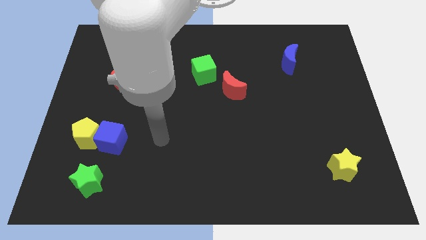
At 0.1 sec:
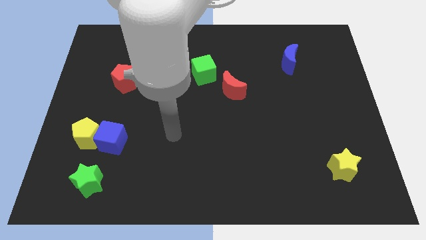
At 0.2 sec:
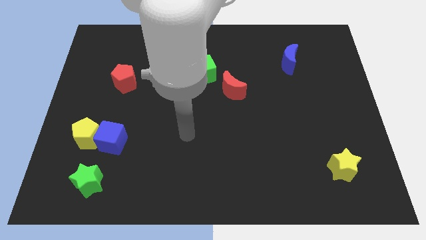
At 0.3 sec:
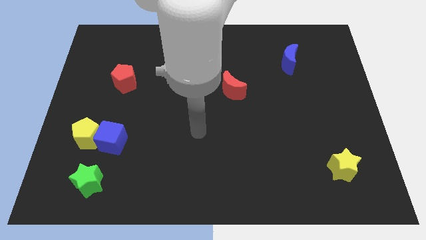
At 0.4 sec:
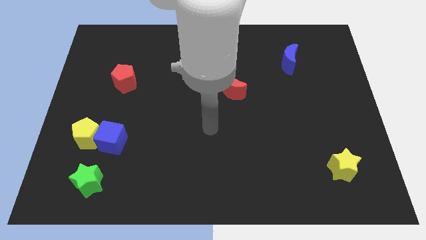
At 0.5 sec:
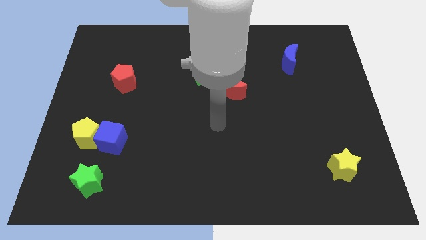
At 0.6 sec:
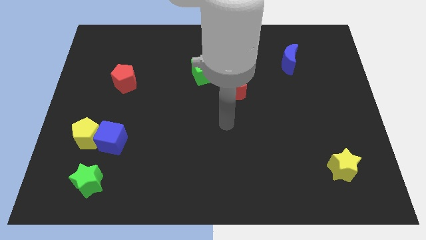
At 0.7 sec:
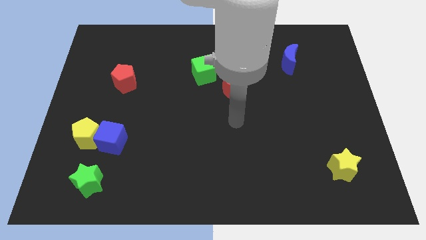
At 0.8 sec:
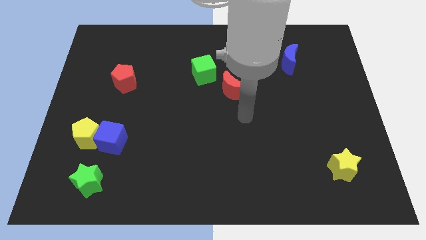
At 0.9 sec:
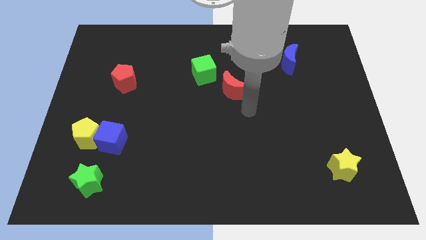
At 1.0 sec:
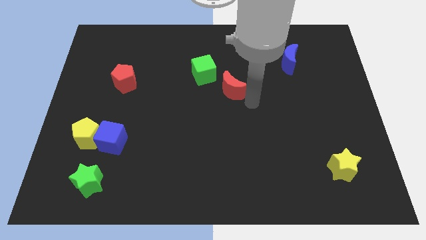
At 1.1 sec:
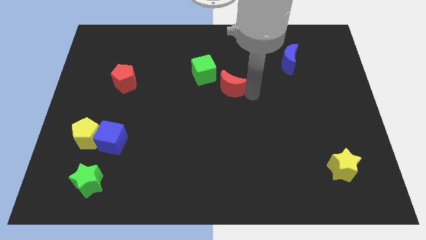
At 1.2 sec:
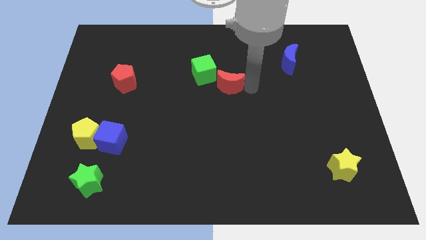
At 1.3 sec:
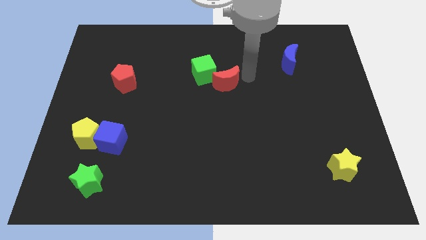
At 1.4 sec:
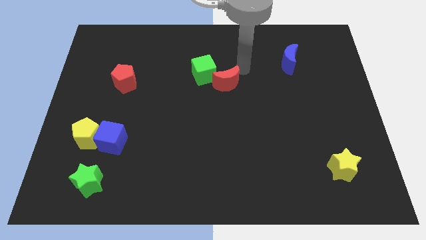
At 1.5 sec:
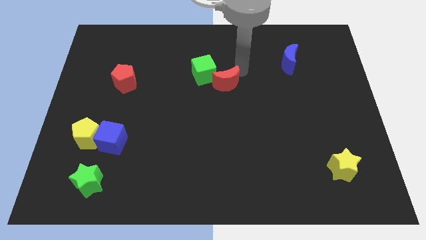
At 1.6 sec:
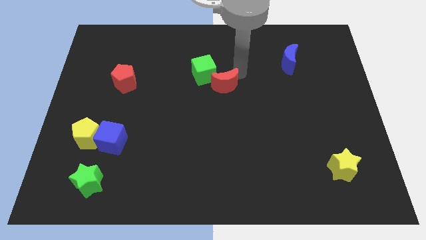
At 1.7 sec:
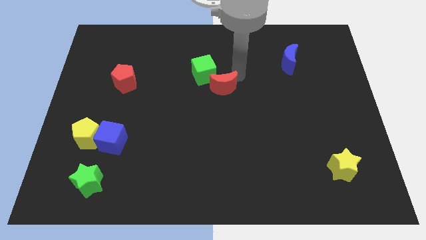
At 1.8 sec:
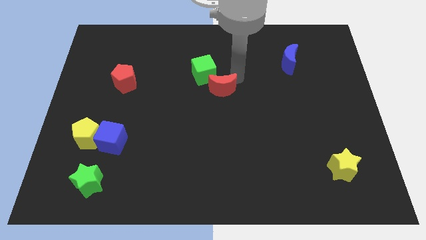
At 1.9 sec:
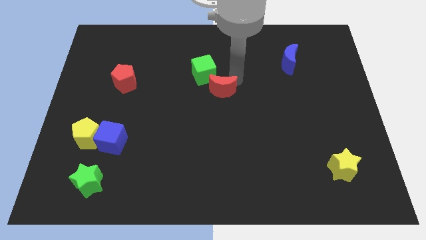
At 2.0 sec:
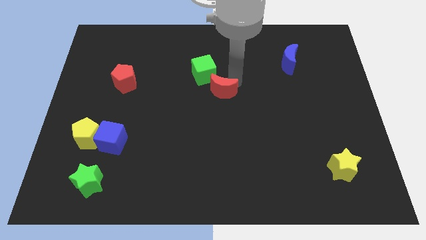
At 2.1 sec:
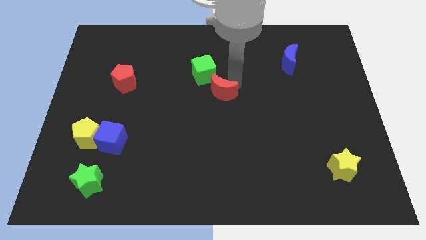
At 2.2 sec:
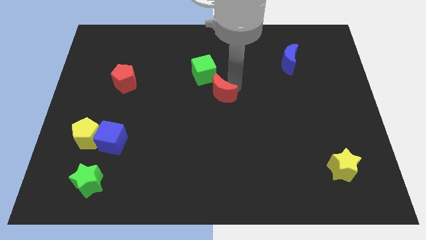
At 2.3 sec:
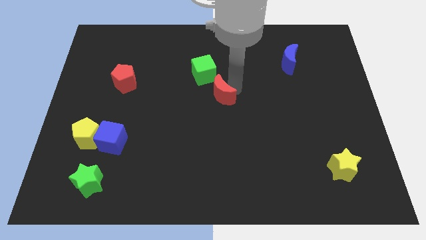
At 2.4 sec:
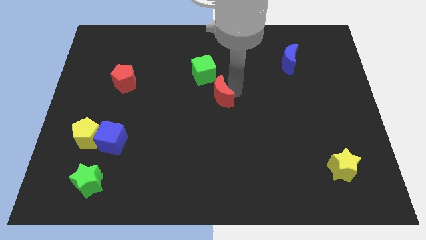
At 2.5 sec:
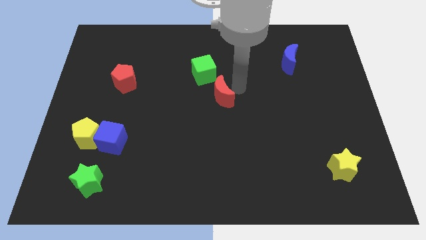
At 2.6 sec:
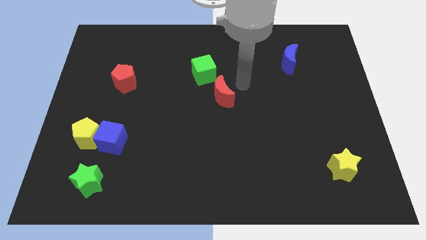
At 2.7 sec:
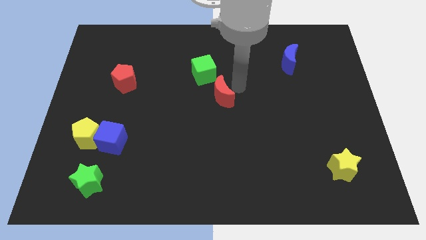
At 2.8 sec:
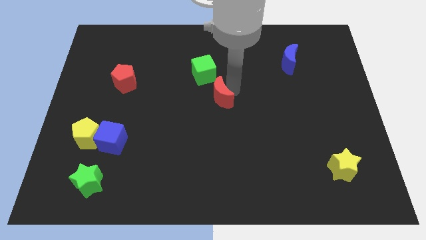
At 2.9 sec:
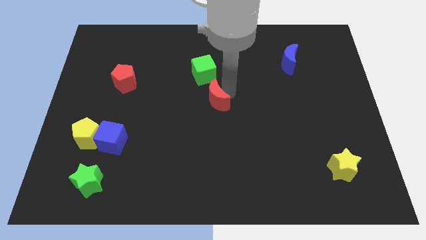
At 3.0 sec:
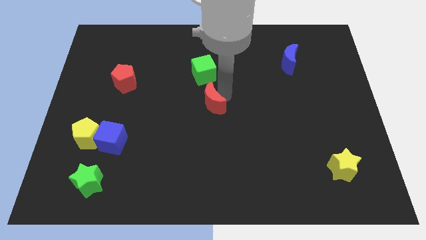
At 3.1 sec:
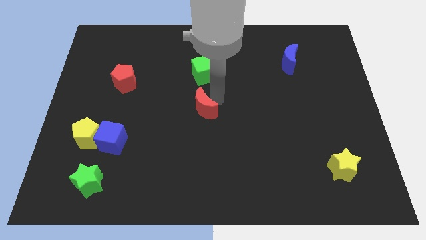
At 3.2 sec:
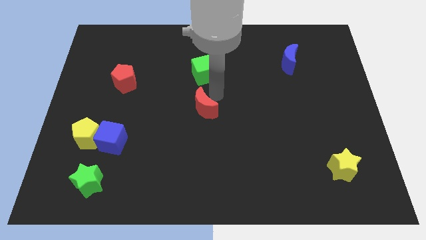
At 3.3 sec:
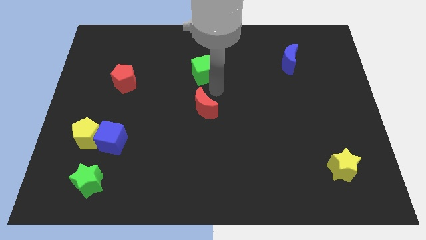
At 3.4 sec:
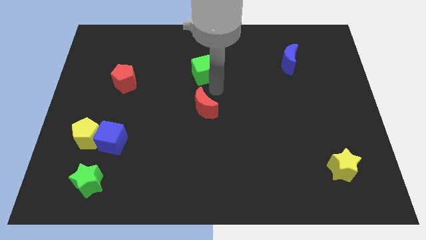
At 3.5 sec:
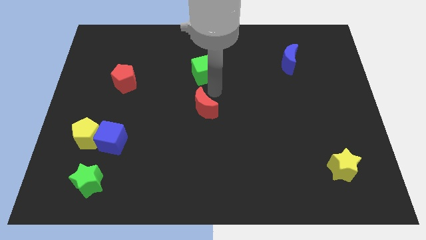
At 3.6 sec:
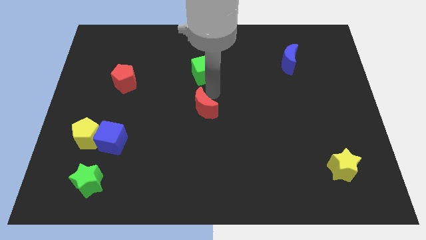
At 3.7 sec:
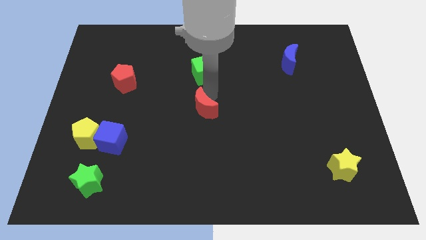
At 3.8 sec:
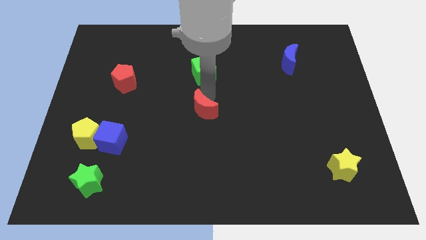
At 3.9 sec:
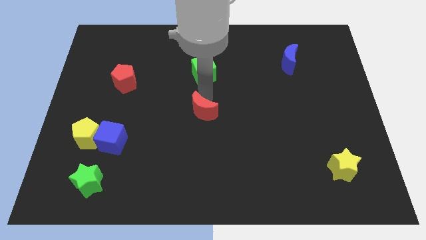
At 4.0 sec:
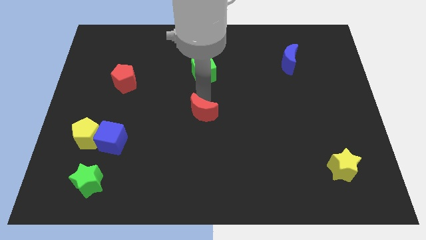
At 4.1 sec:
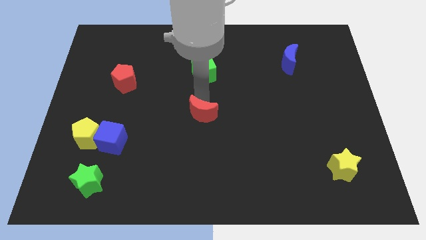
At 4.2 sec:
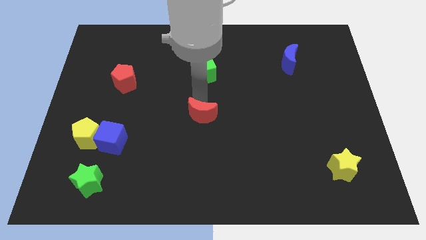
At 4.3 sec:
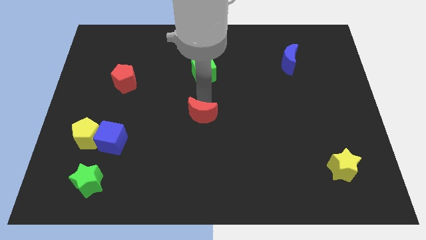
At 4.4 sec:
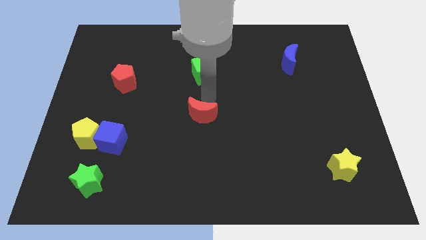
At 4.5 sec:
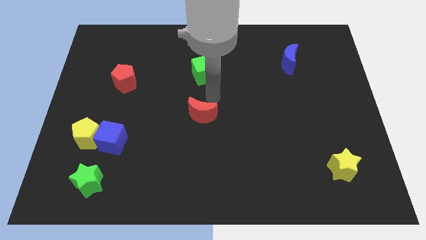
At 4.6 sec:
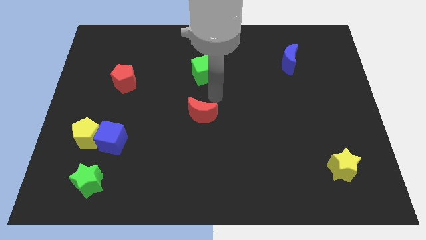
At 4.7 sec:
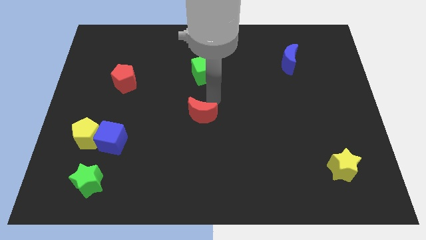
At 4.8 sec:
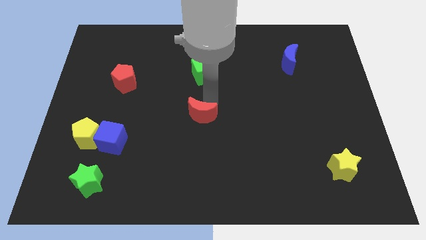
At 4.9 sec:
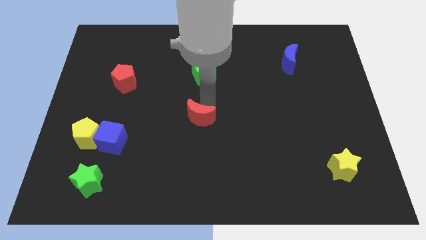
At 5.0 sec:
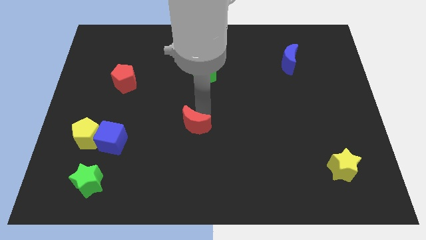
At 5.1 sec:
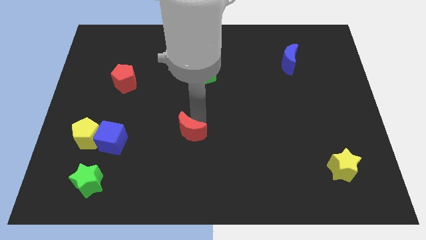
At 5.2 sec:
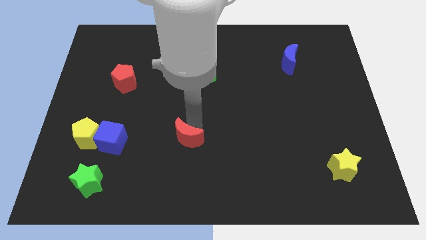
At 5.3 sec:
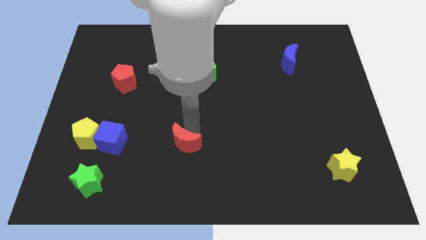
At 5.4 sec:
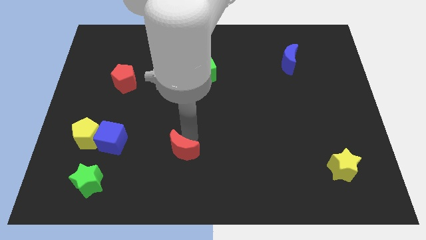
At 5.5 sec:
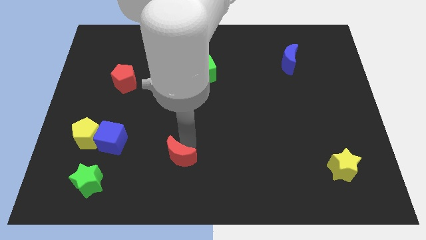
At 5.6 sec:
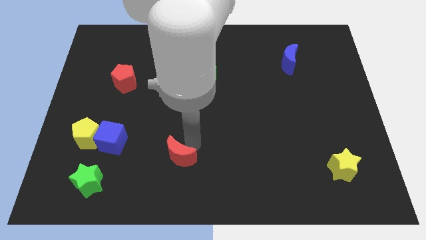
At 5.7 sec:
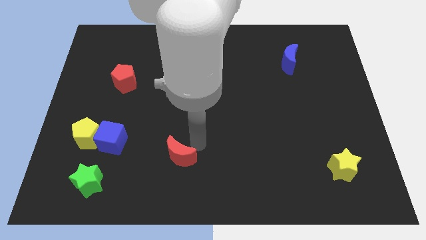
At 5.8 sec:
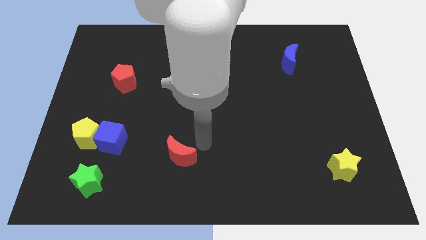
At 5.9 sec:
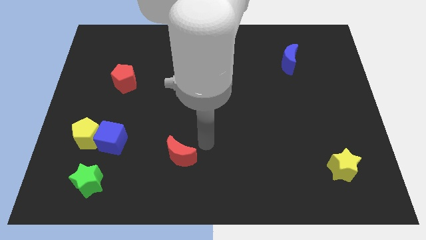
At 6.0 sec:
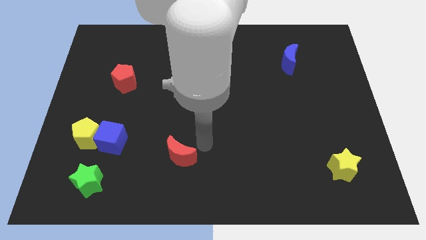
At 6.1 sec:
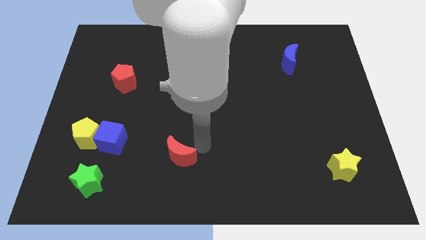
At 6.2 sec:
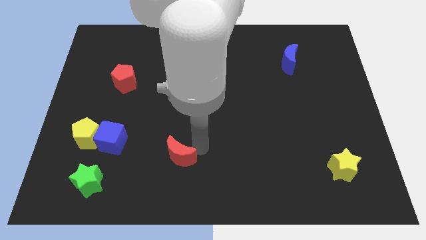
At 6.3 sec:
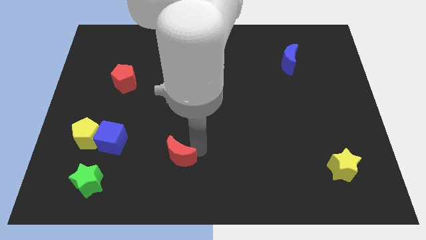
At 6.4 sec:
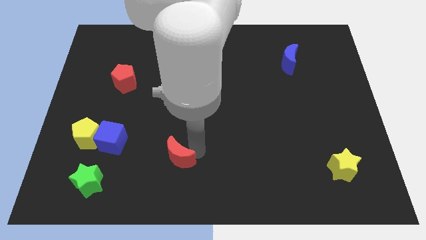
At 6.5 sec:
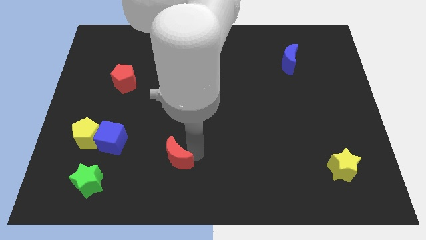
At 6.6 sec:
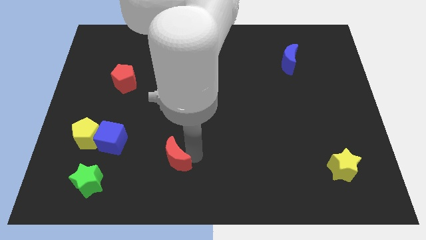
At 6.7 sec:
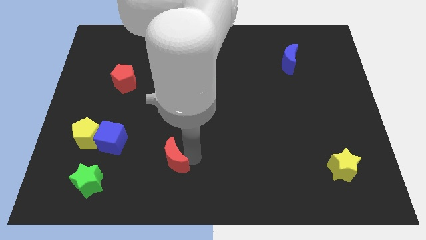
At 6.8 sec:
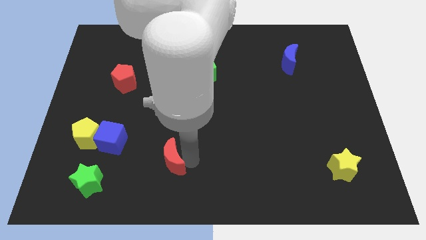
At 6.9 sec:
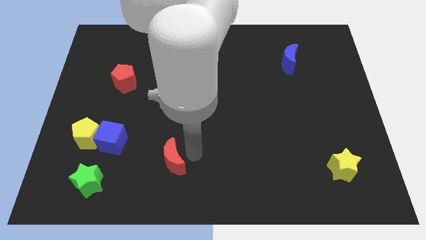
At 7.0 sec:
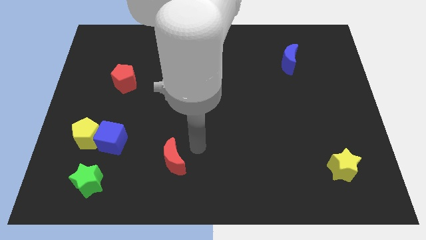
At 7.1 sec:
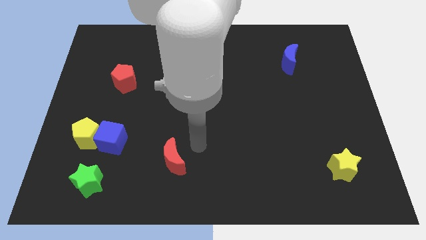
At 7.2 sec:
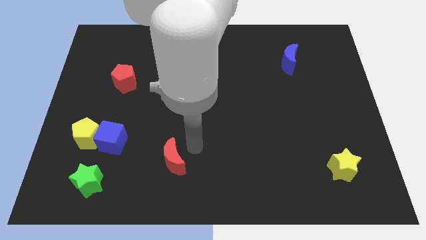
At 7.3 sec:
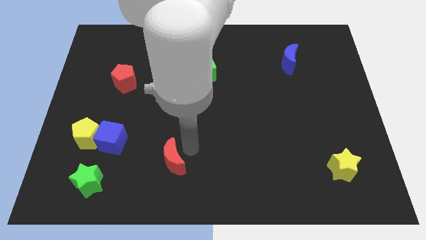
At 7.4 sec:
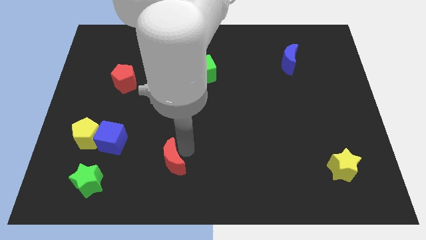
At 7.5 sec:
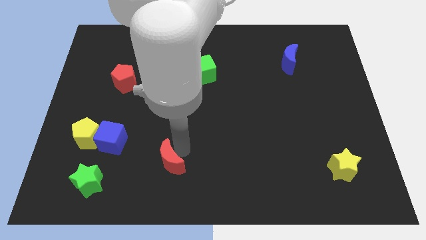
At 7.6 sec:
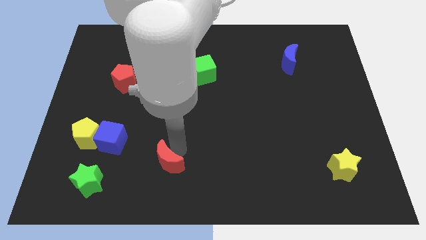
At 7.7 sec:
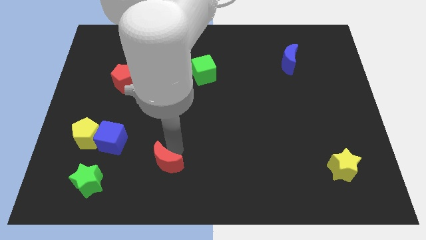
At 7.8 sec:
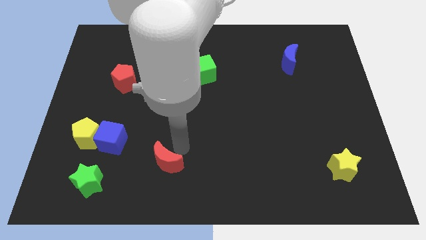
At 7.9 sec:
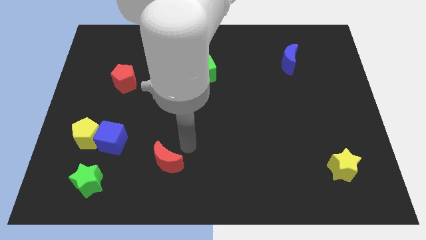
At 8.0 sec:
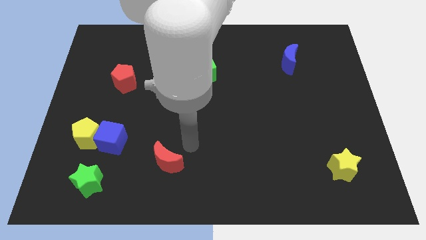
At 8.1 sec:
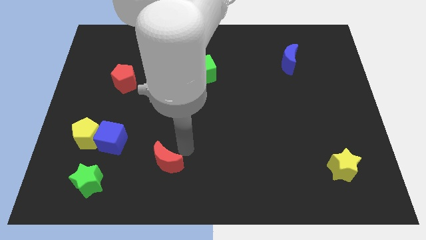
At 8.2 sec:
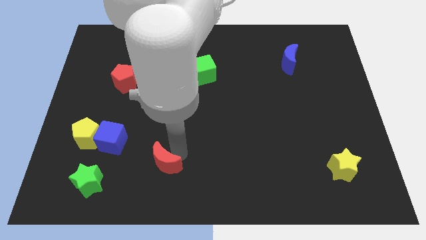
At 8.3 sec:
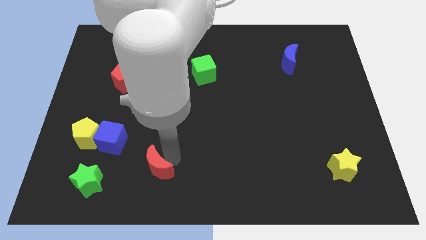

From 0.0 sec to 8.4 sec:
push the red moon to the right side of the green star
